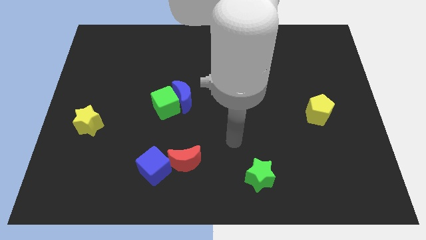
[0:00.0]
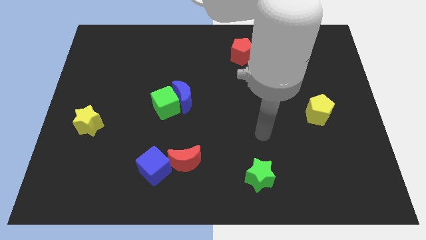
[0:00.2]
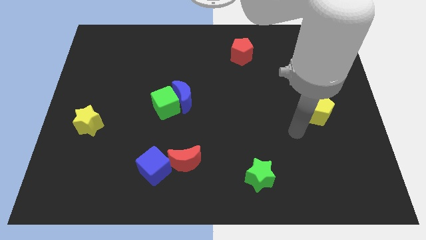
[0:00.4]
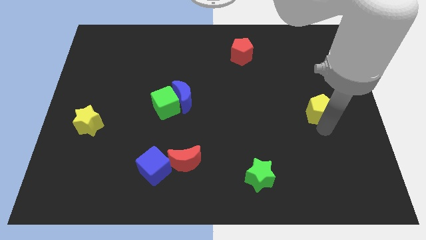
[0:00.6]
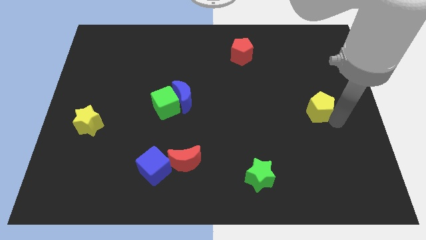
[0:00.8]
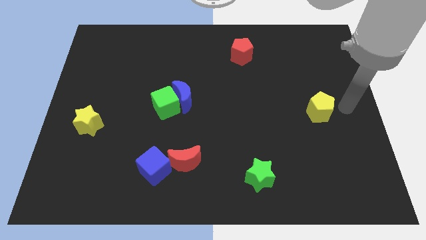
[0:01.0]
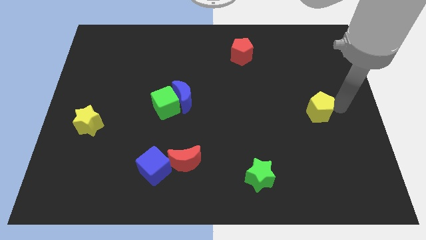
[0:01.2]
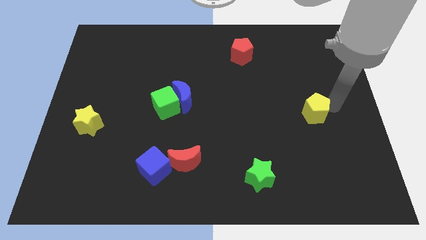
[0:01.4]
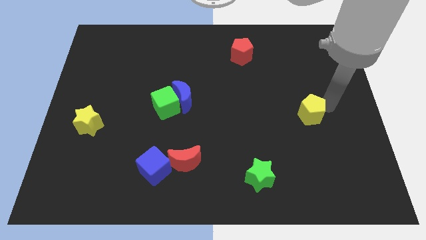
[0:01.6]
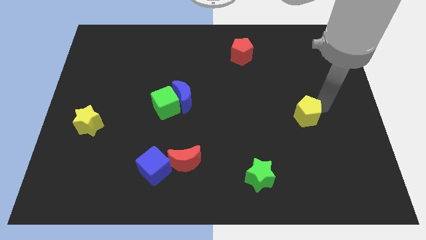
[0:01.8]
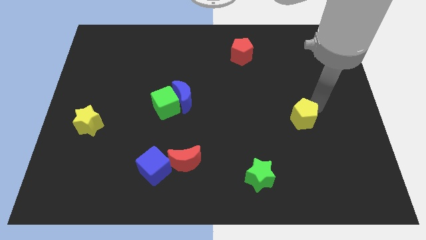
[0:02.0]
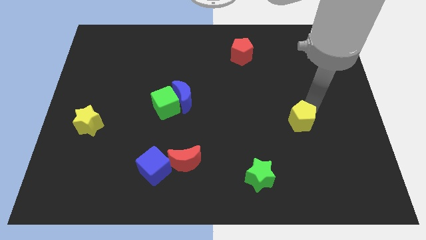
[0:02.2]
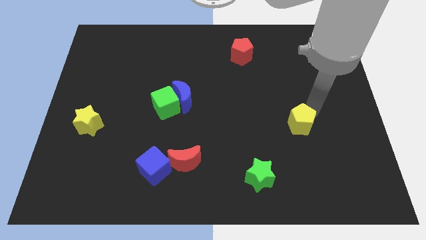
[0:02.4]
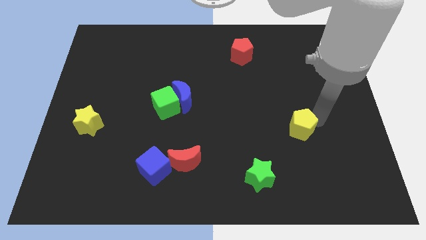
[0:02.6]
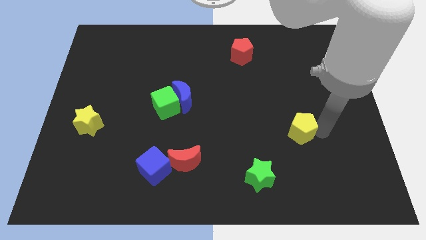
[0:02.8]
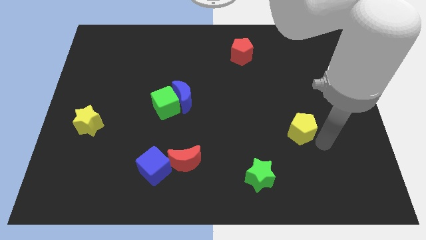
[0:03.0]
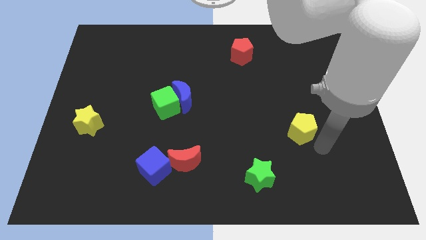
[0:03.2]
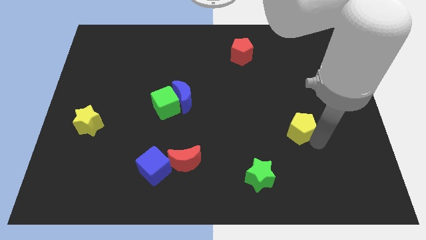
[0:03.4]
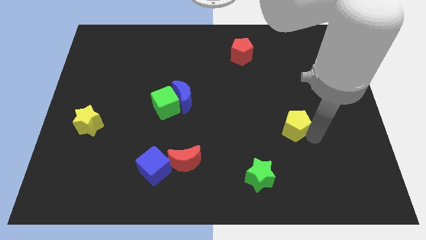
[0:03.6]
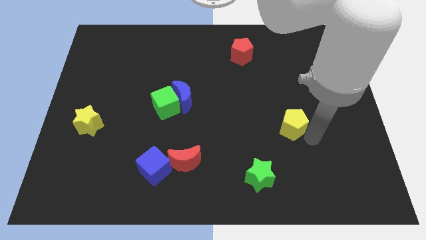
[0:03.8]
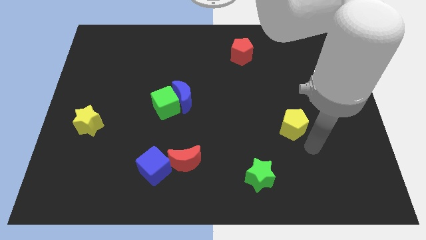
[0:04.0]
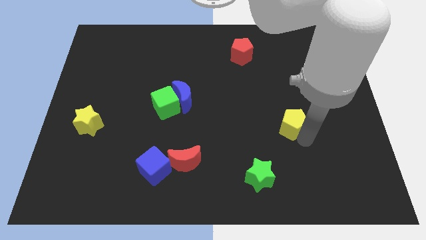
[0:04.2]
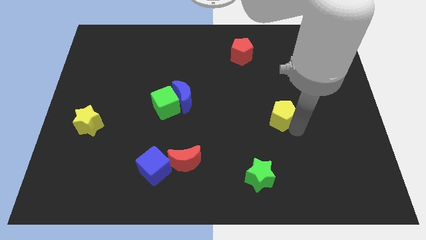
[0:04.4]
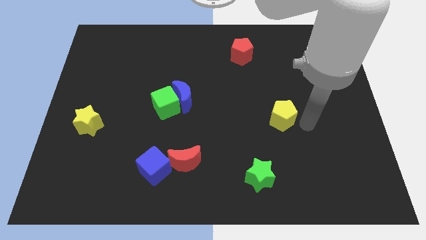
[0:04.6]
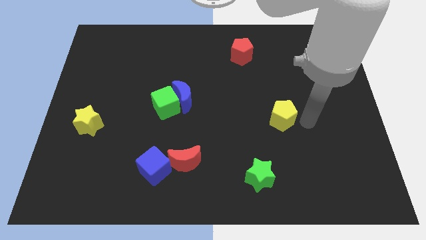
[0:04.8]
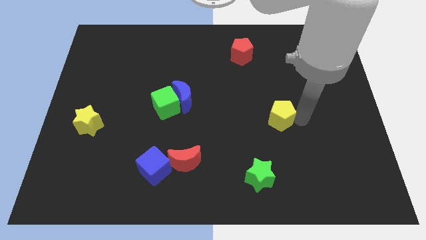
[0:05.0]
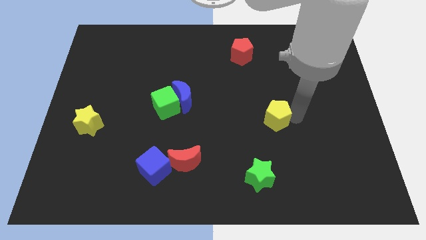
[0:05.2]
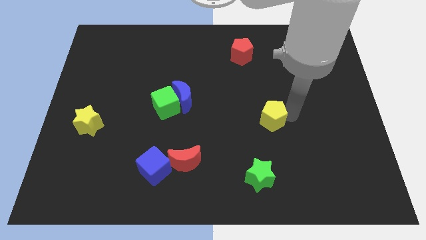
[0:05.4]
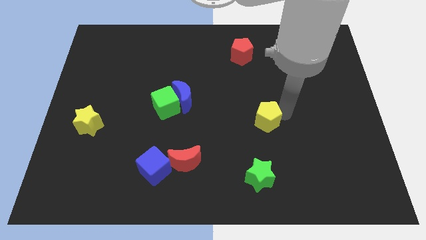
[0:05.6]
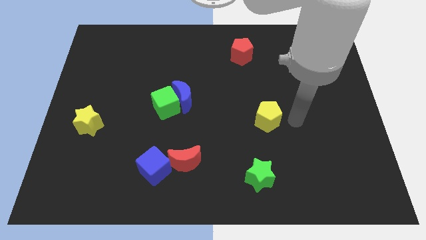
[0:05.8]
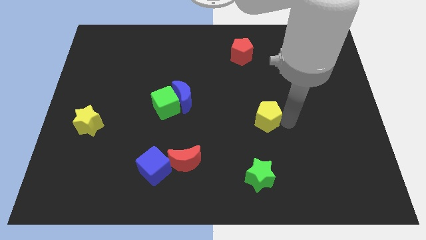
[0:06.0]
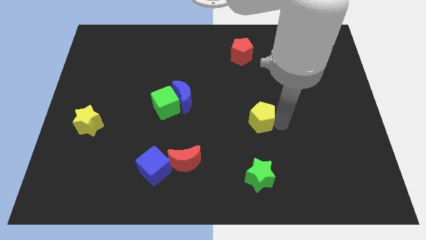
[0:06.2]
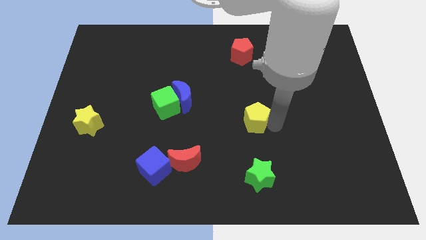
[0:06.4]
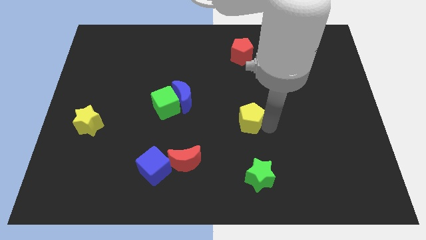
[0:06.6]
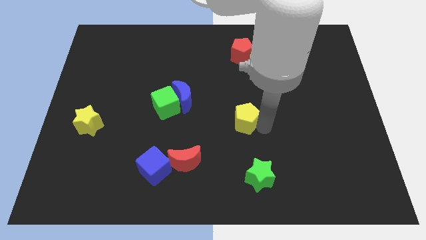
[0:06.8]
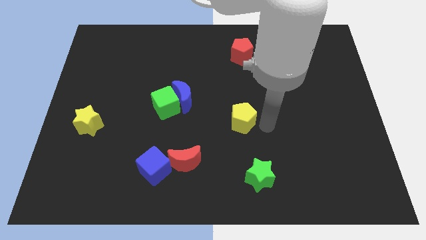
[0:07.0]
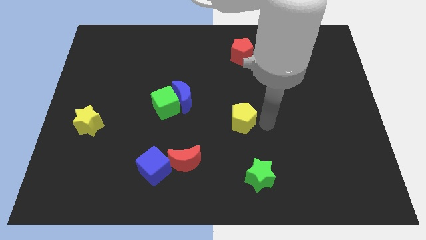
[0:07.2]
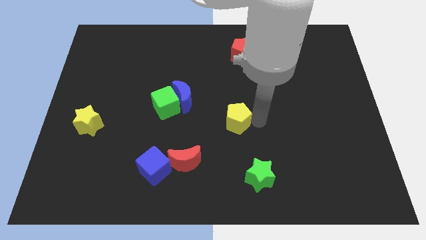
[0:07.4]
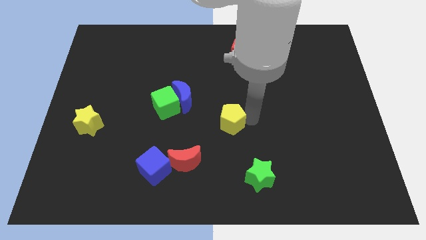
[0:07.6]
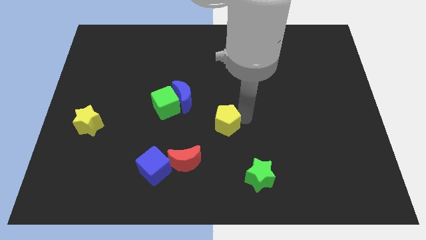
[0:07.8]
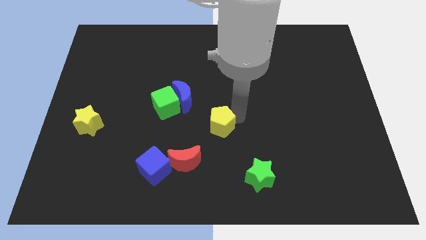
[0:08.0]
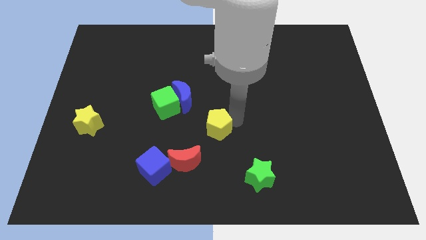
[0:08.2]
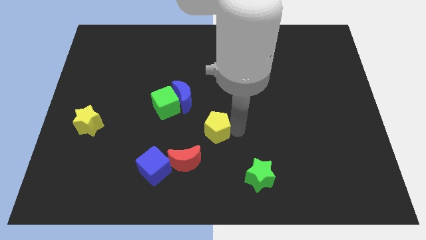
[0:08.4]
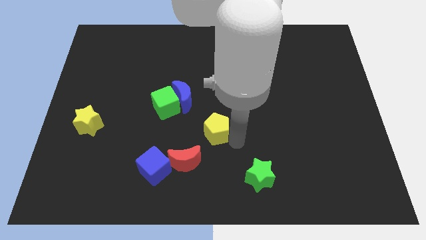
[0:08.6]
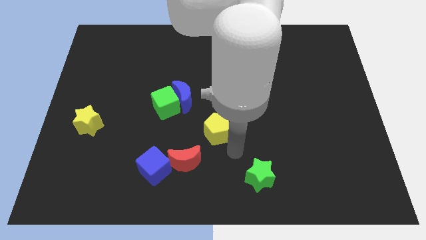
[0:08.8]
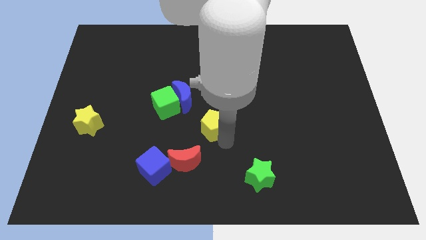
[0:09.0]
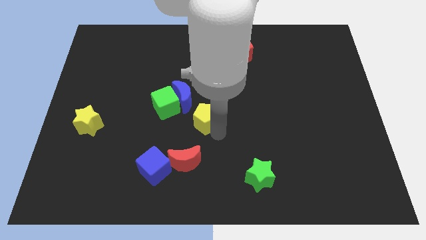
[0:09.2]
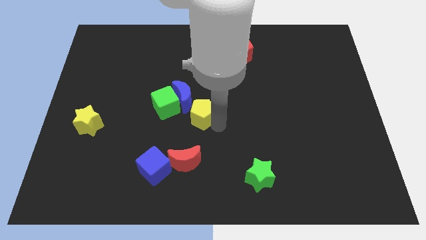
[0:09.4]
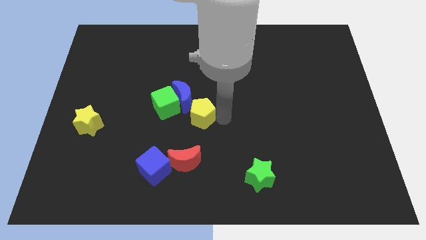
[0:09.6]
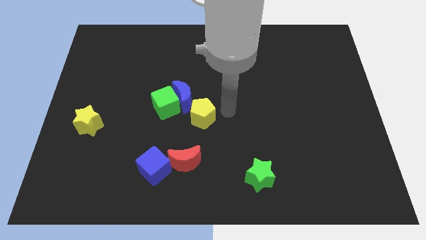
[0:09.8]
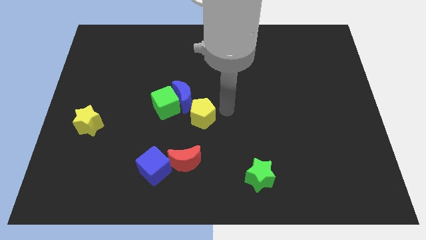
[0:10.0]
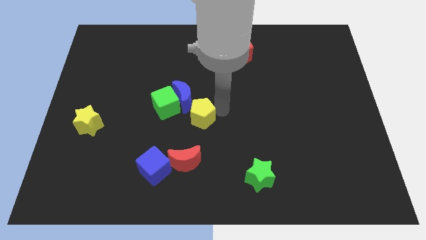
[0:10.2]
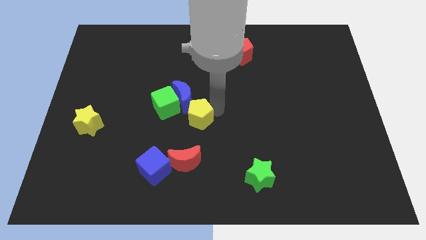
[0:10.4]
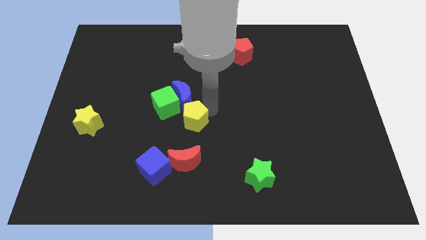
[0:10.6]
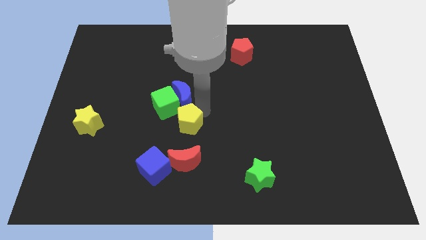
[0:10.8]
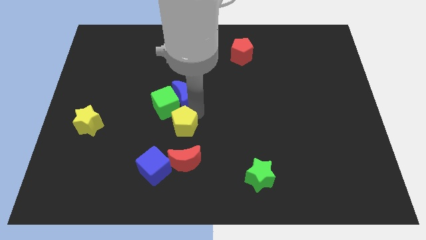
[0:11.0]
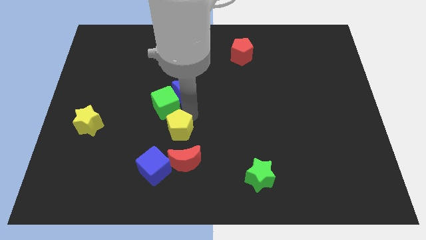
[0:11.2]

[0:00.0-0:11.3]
slide the yellow pentagon above the blue cube
